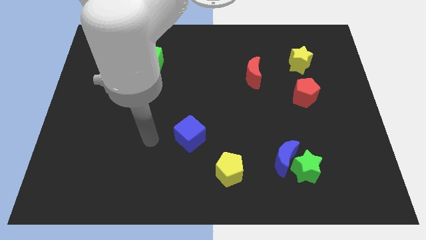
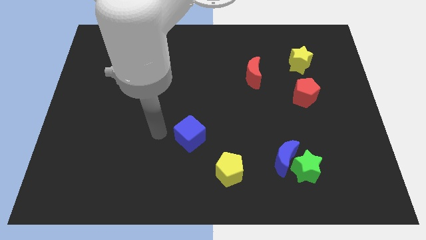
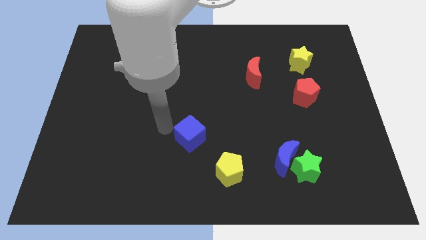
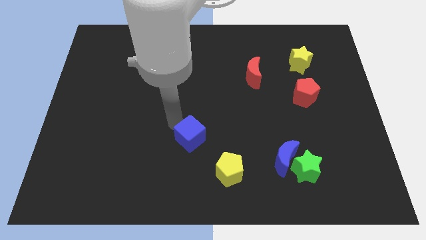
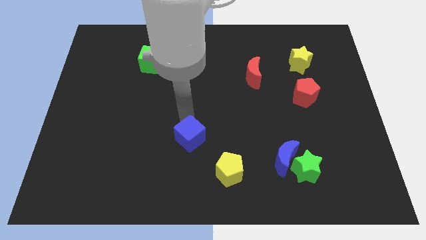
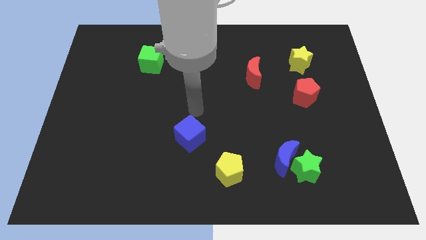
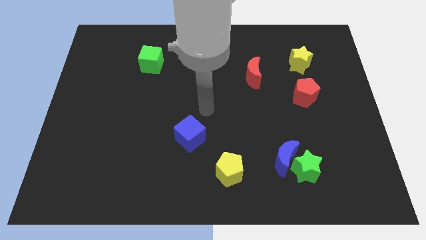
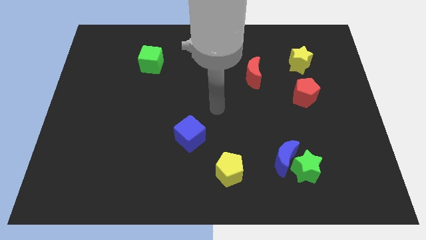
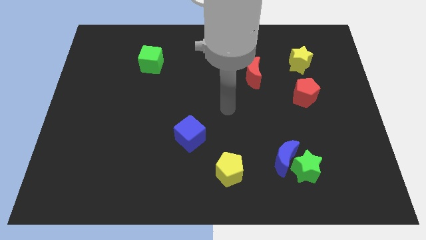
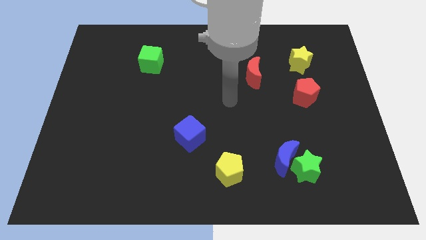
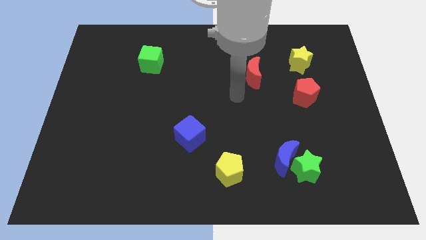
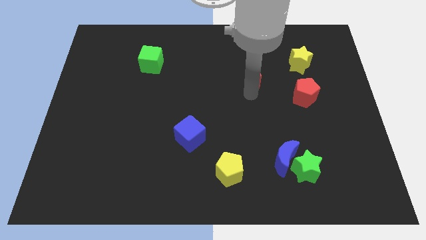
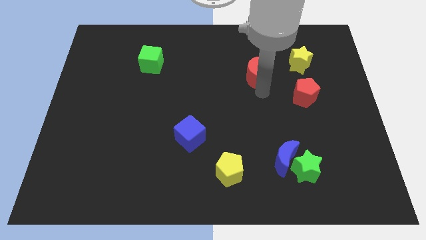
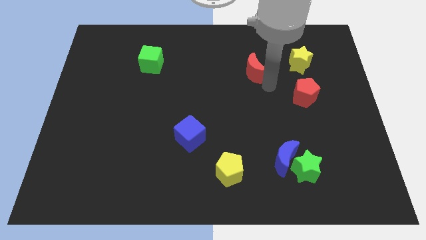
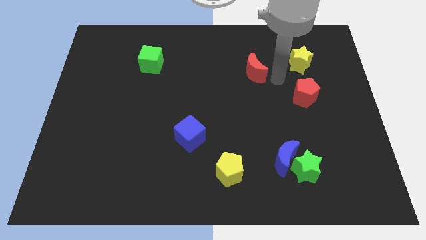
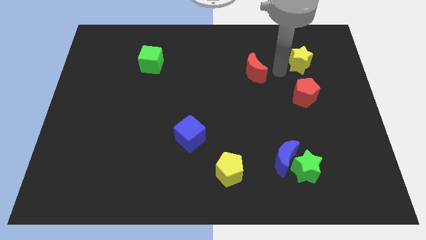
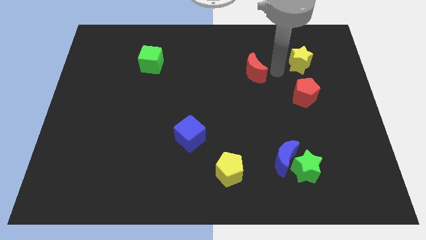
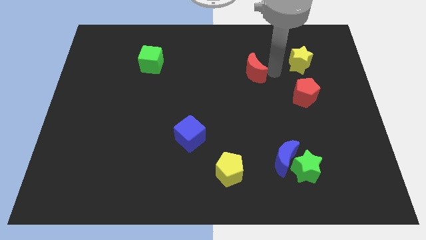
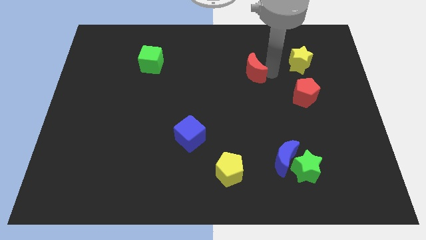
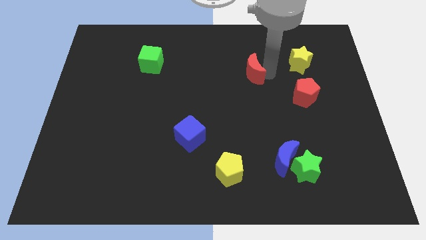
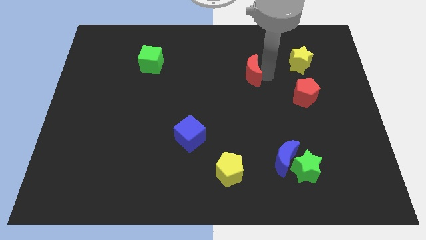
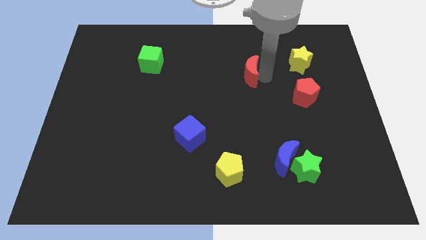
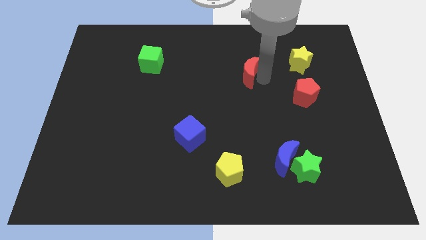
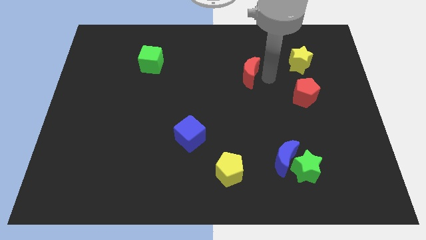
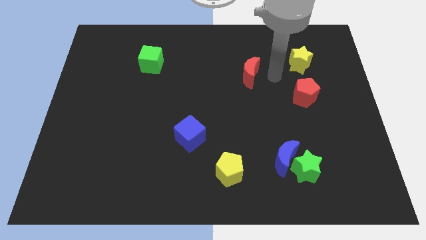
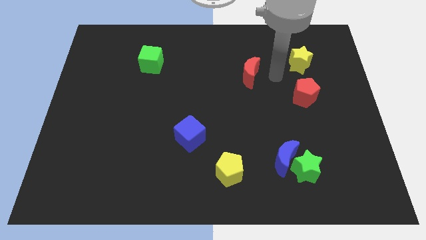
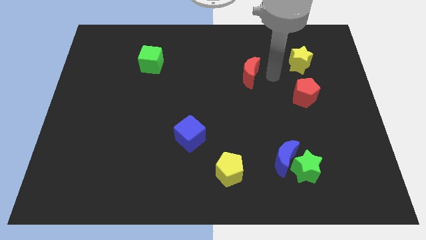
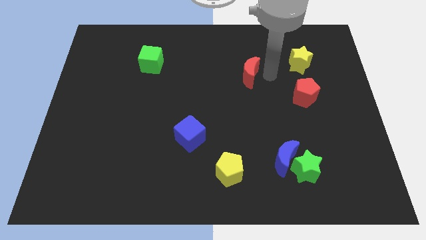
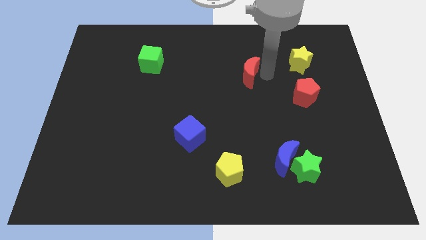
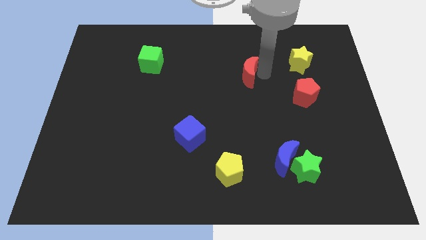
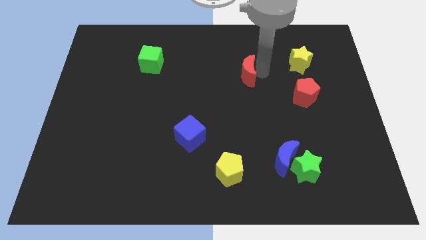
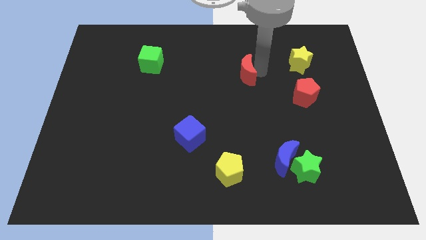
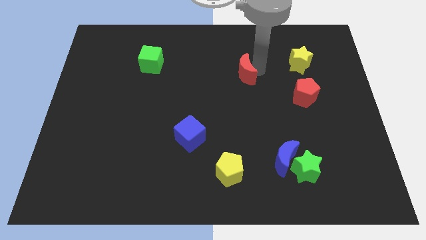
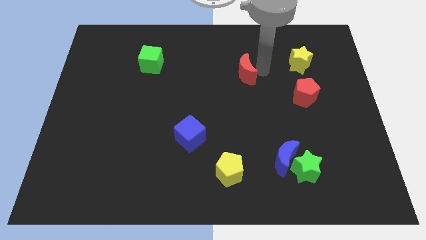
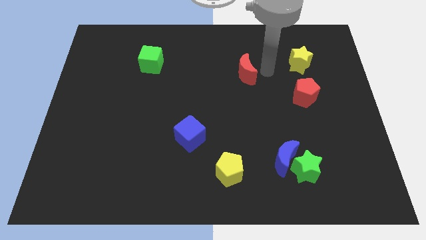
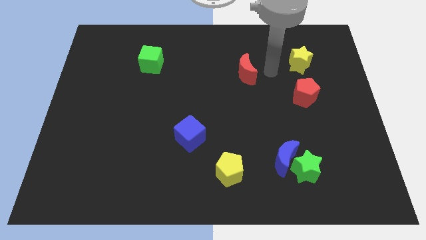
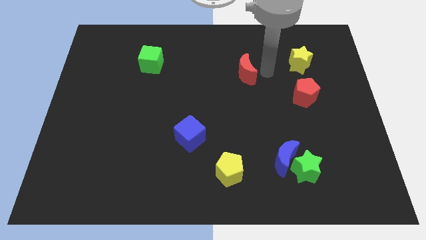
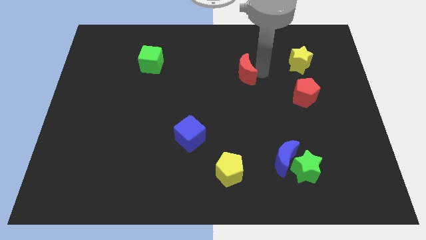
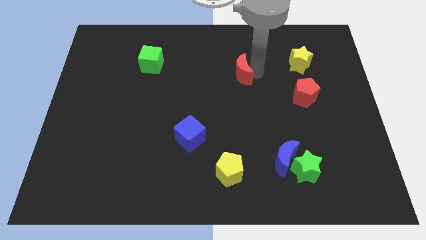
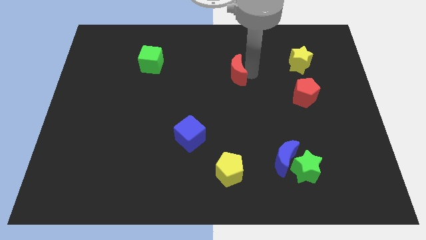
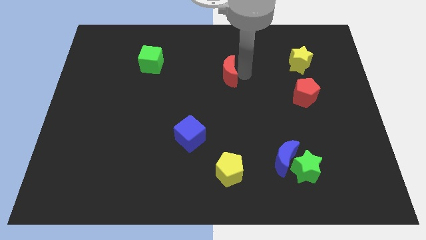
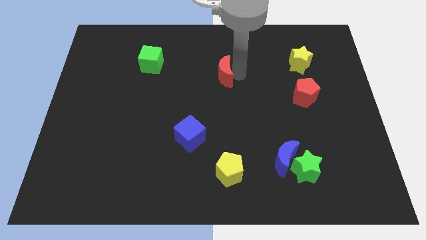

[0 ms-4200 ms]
slightly slide the red moon left

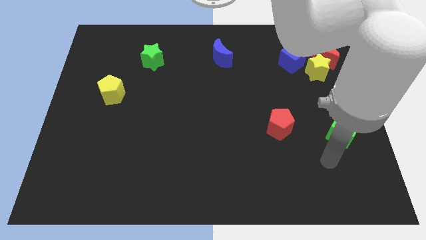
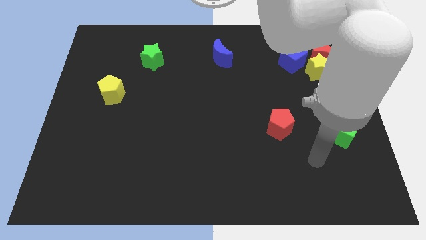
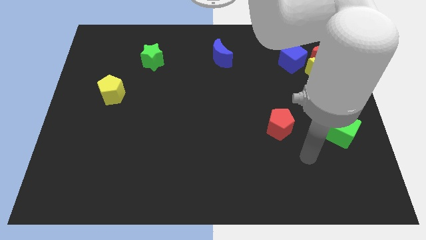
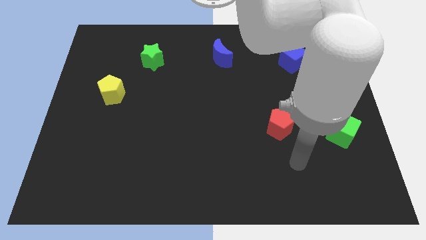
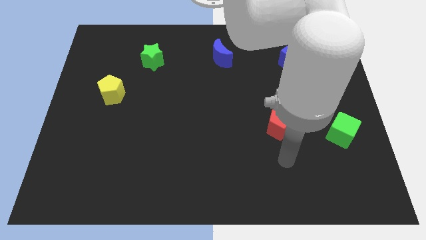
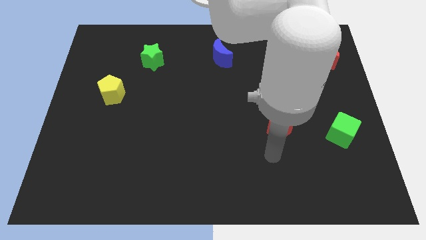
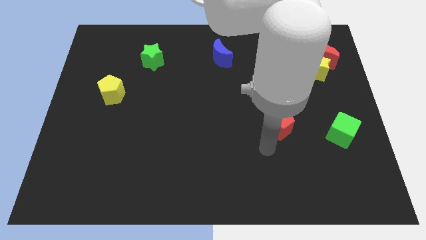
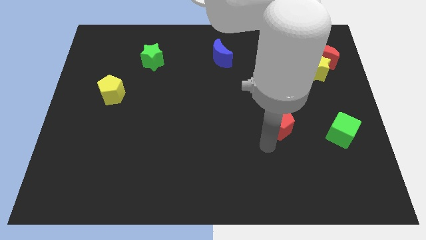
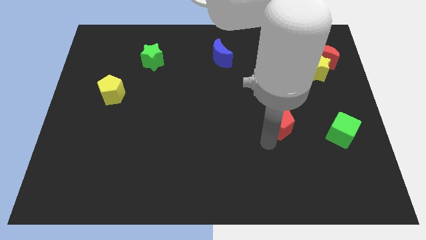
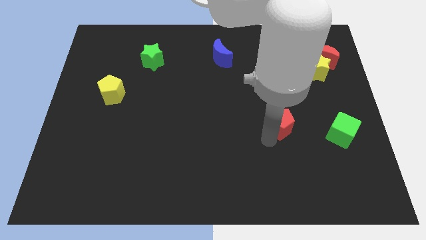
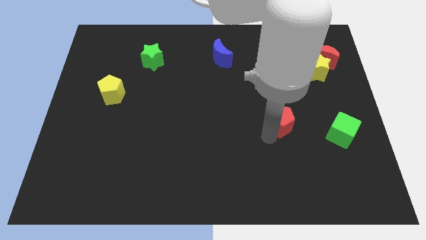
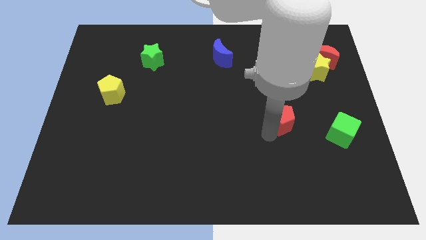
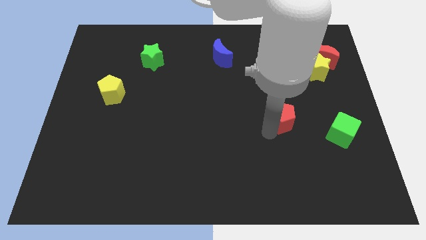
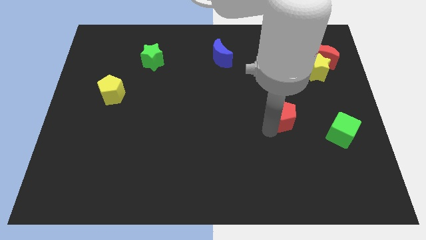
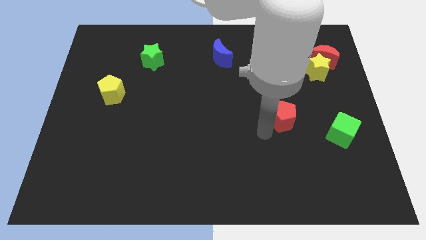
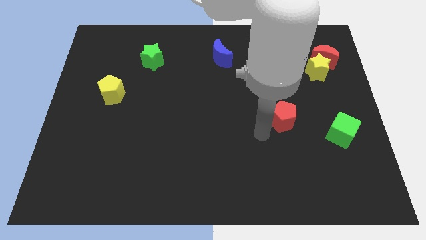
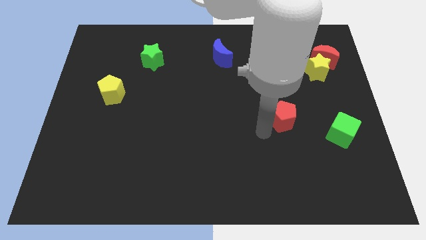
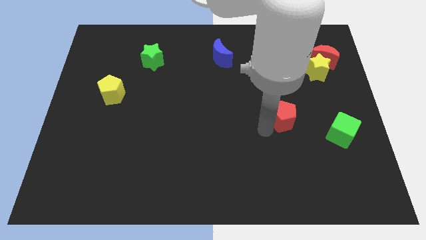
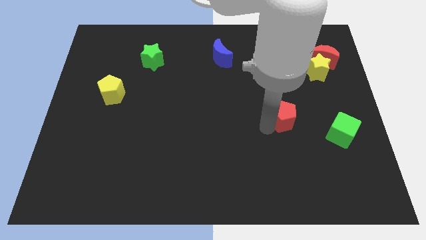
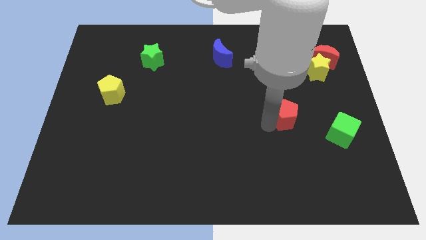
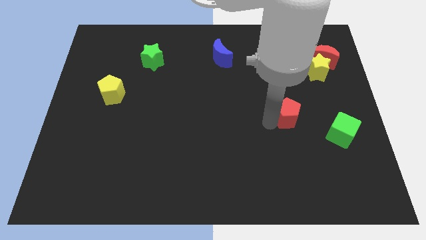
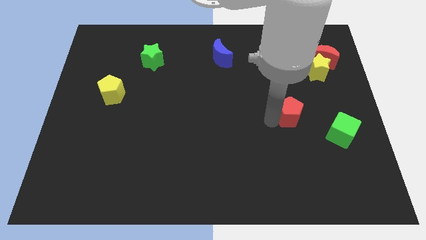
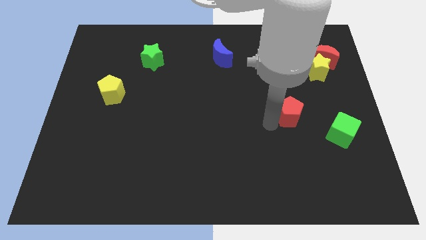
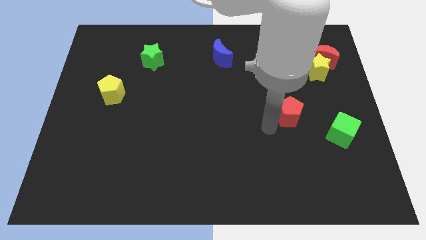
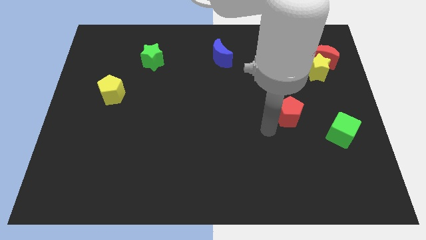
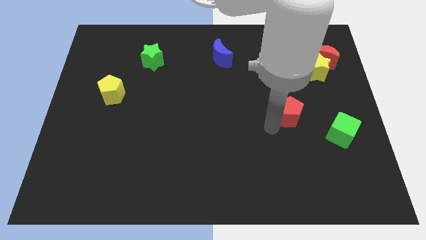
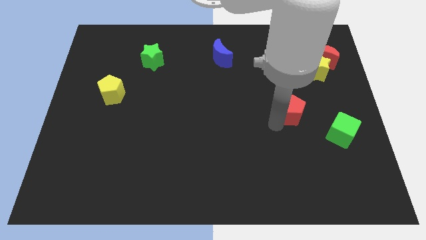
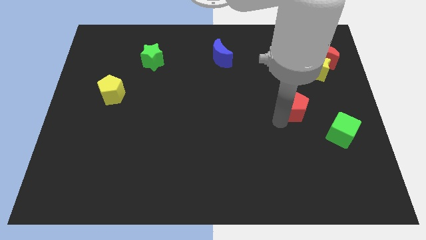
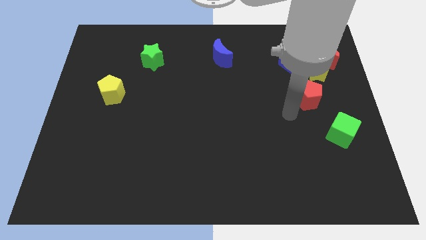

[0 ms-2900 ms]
push the red pentagon upwards and then right somewhat

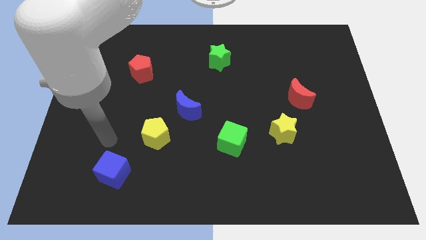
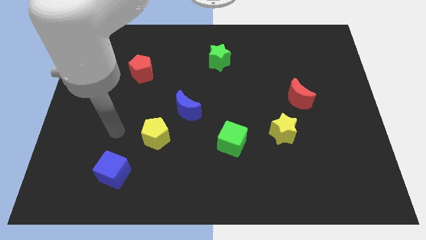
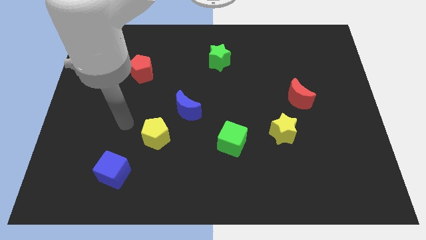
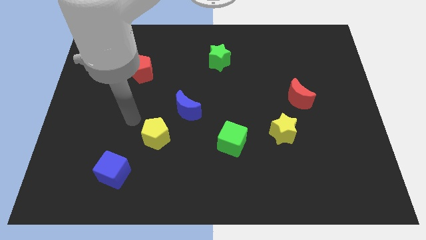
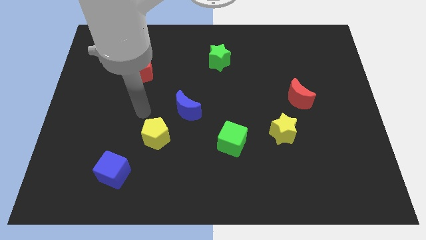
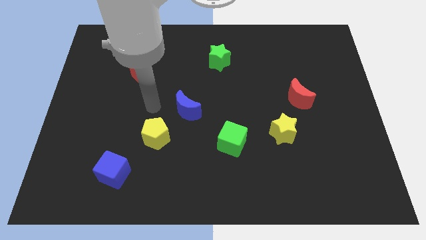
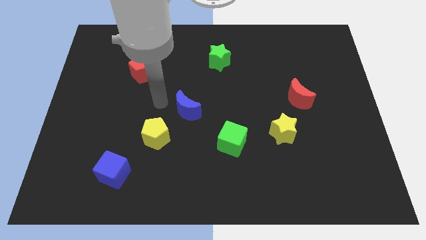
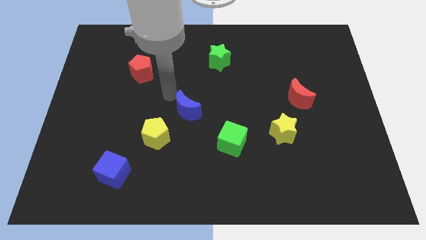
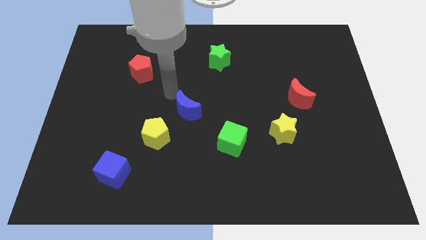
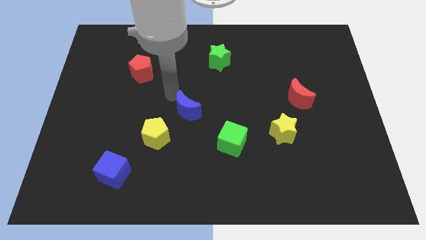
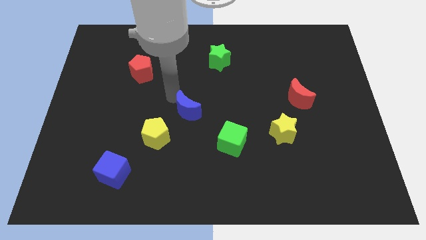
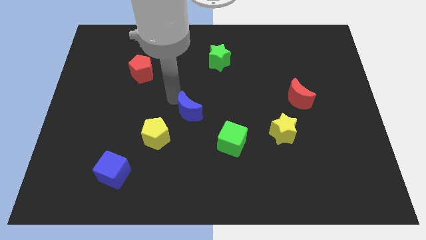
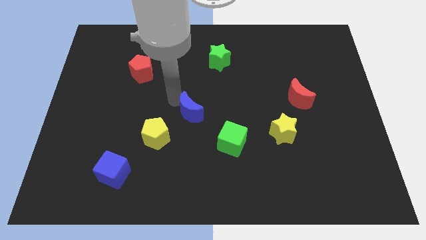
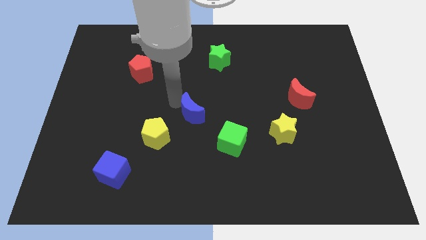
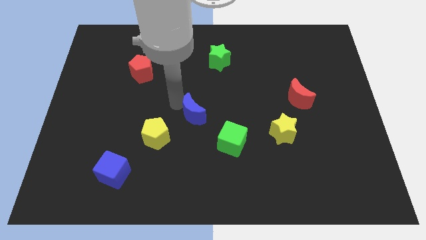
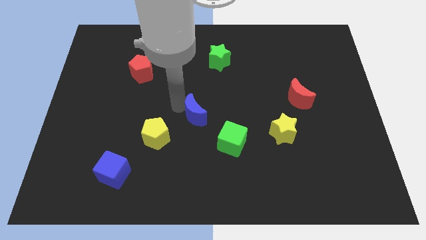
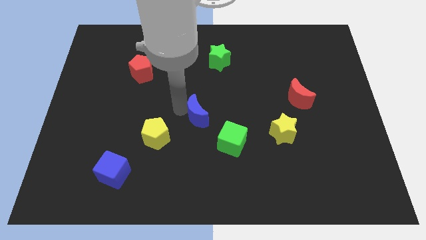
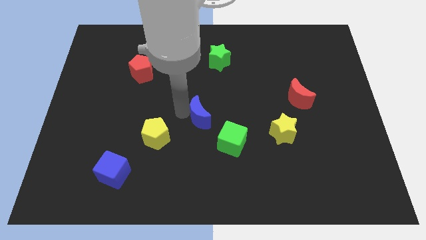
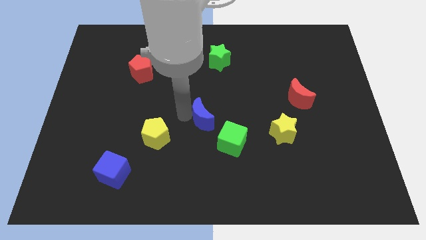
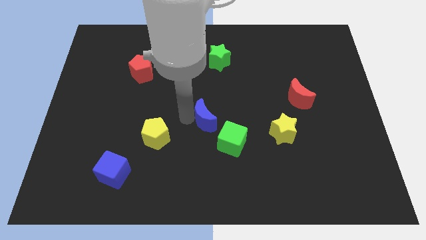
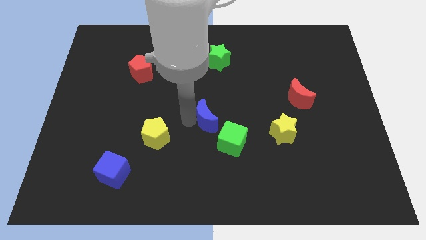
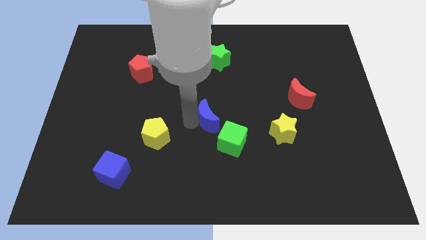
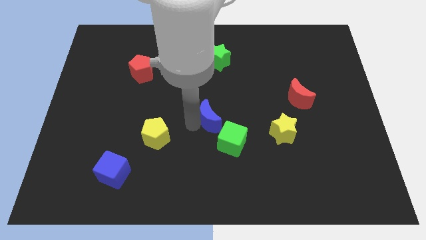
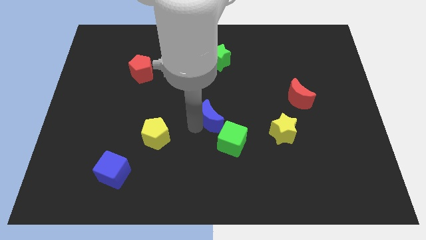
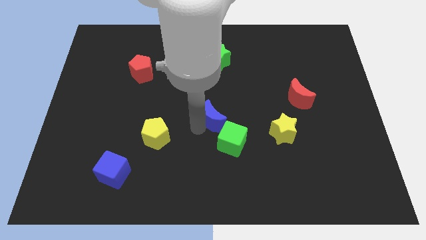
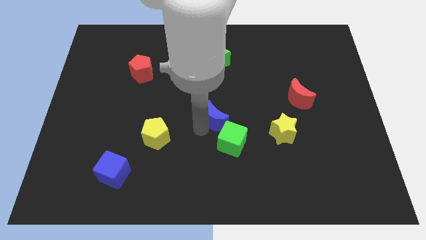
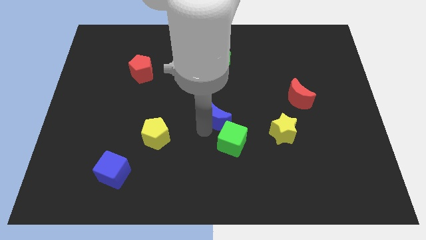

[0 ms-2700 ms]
move the blue moon a little downwards and then to the right
